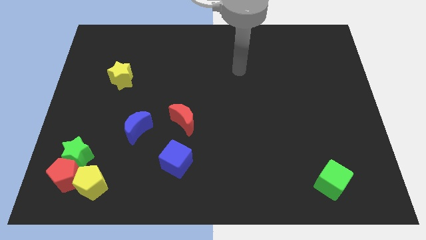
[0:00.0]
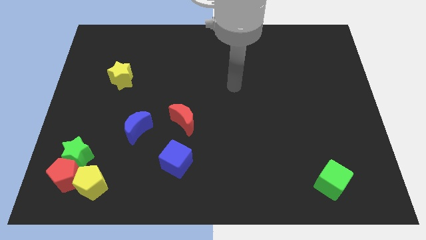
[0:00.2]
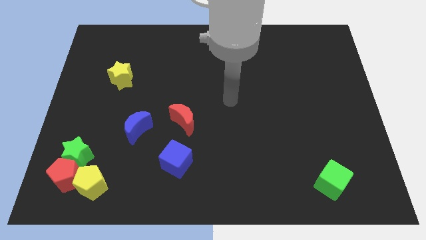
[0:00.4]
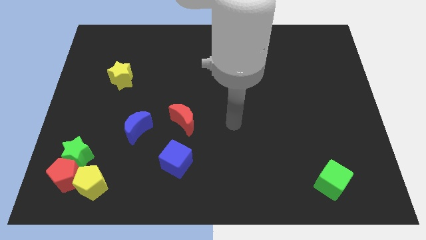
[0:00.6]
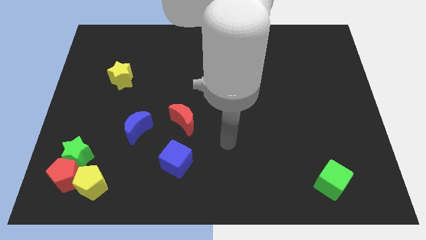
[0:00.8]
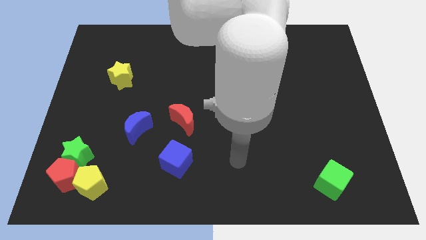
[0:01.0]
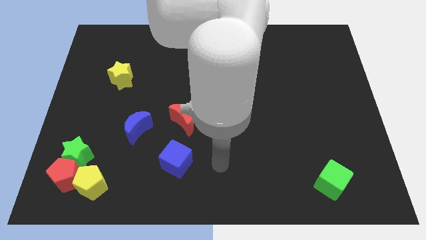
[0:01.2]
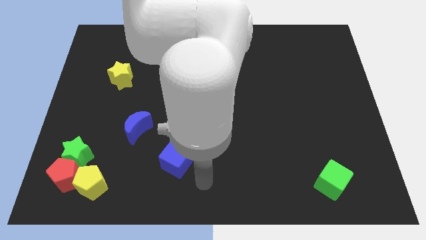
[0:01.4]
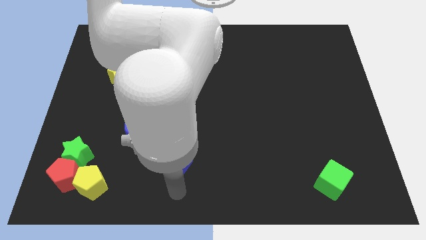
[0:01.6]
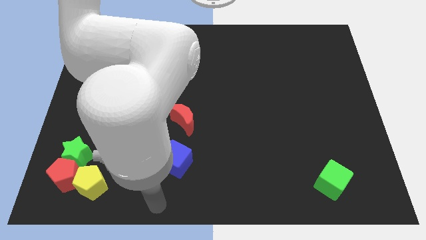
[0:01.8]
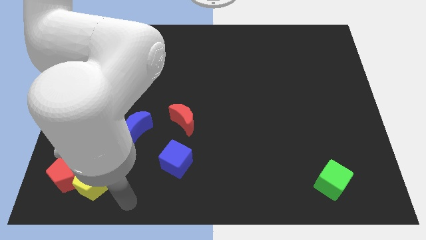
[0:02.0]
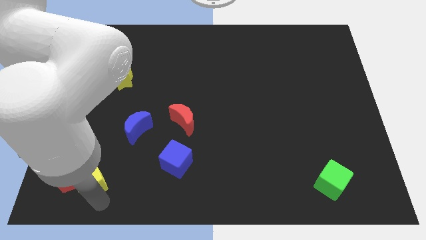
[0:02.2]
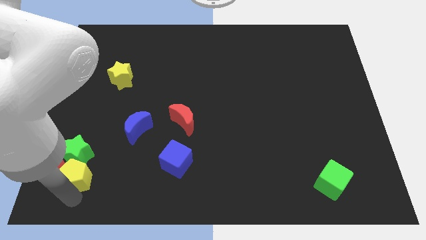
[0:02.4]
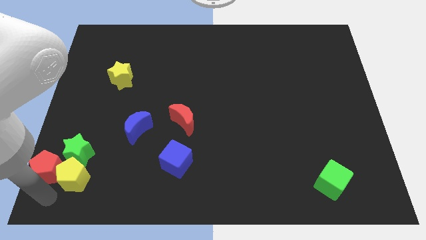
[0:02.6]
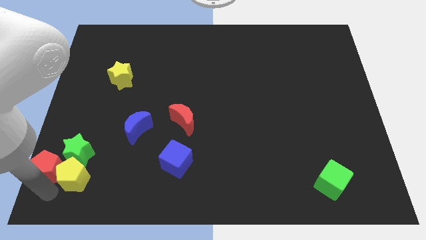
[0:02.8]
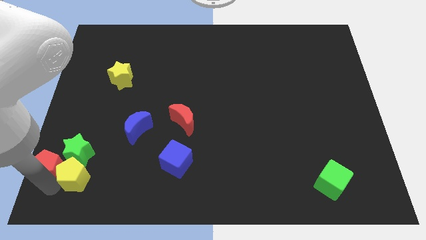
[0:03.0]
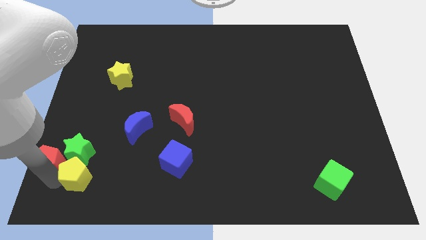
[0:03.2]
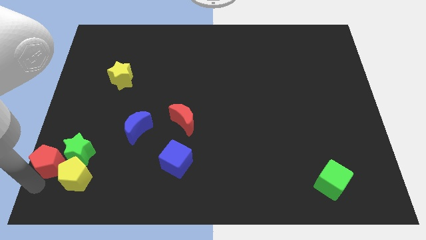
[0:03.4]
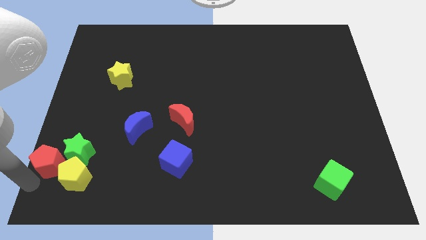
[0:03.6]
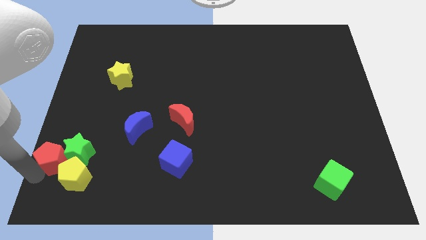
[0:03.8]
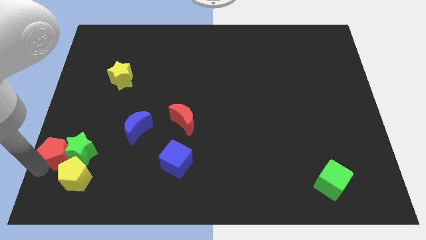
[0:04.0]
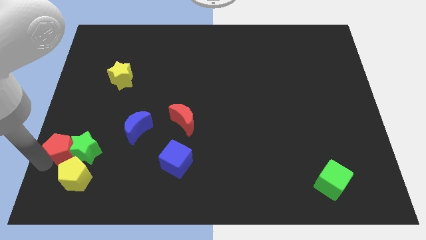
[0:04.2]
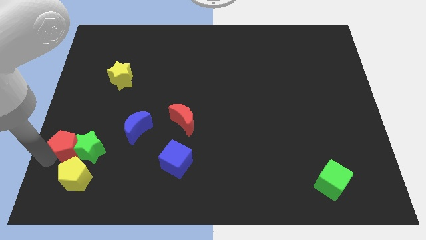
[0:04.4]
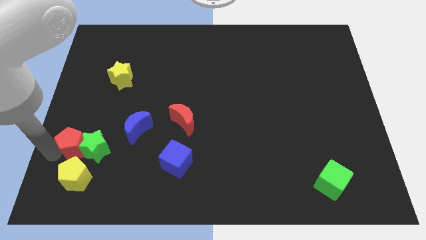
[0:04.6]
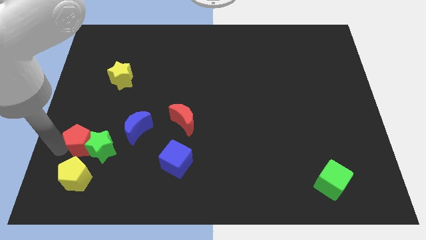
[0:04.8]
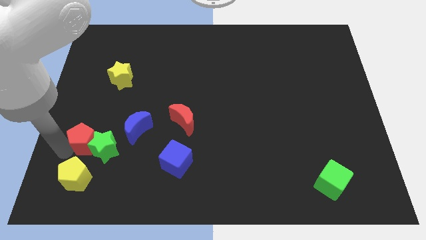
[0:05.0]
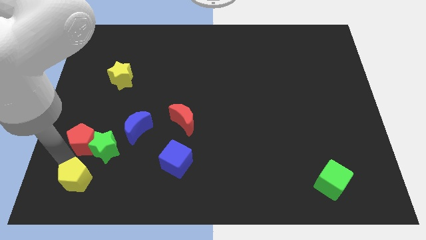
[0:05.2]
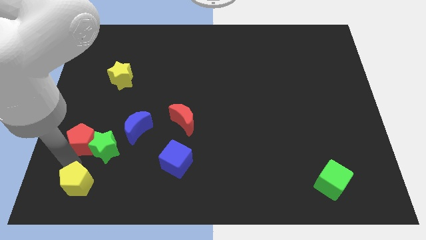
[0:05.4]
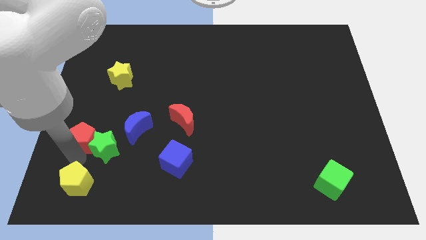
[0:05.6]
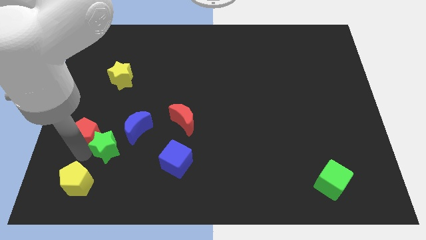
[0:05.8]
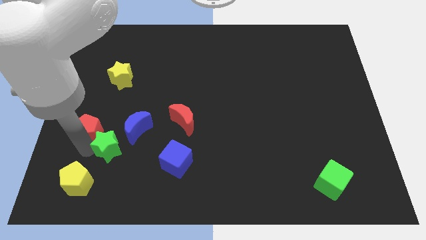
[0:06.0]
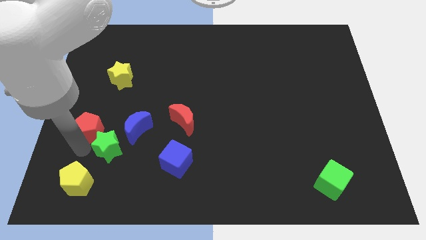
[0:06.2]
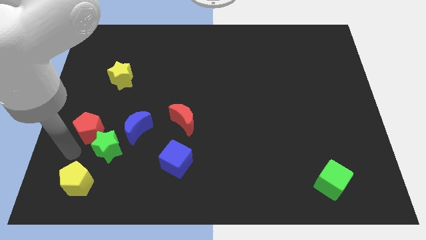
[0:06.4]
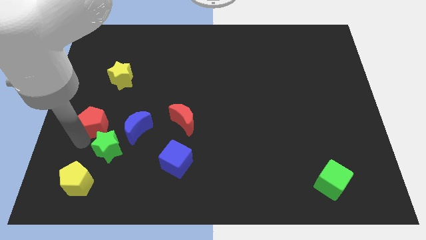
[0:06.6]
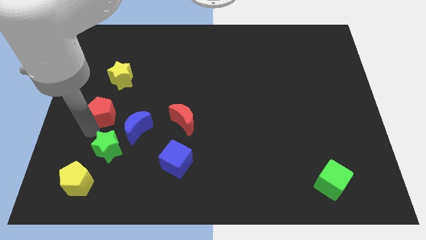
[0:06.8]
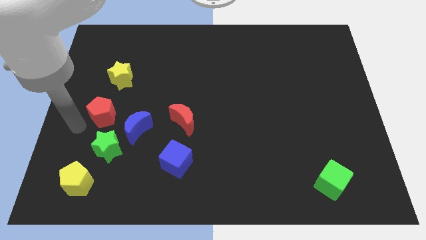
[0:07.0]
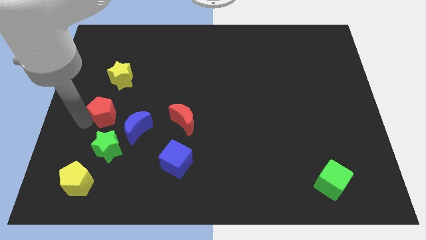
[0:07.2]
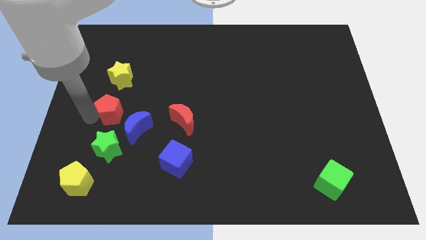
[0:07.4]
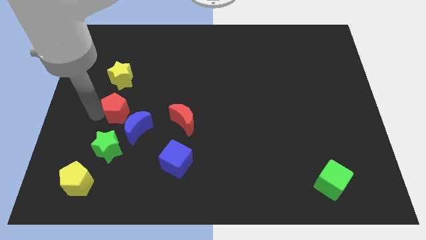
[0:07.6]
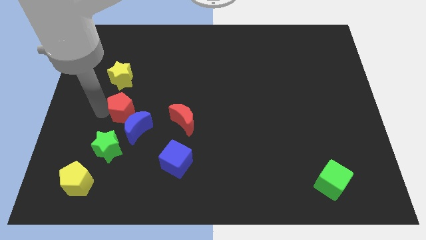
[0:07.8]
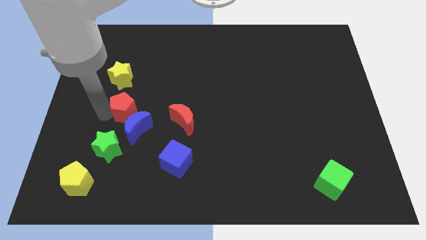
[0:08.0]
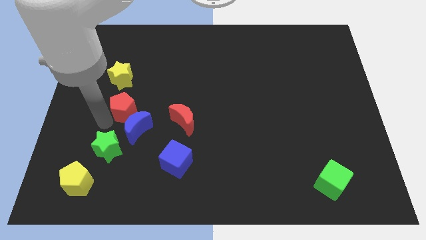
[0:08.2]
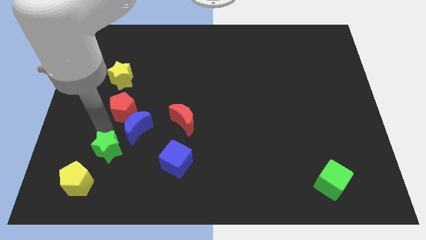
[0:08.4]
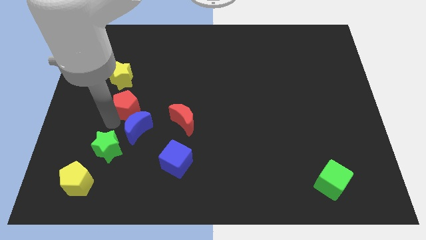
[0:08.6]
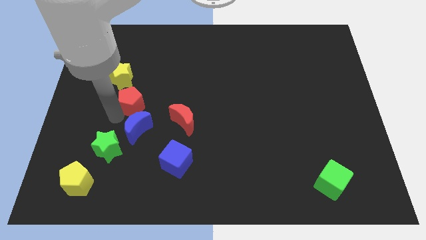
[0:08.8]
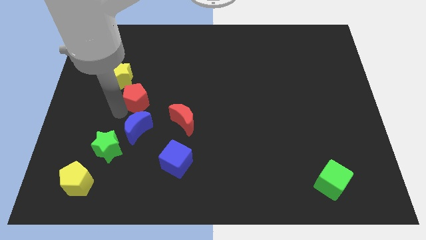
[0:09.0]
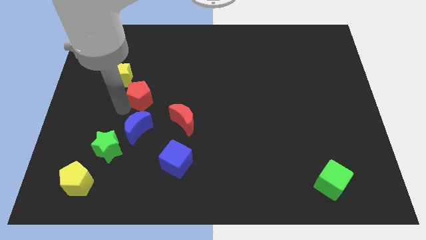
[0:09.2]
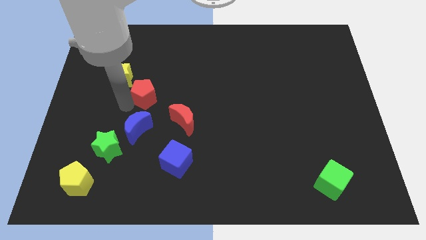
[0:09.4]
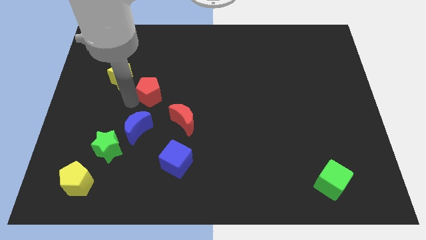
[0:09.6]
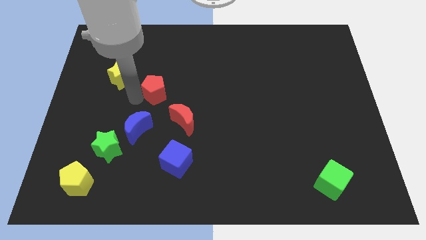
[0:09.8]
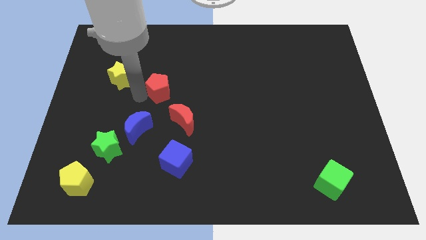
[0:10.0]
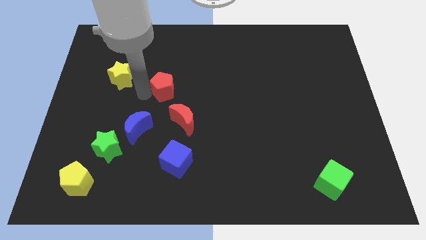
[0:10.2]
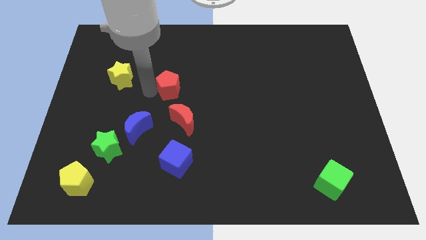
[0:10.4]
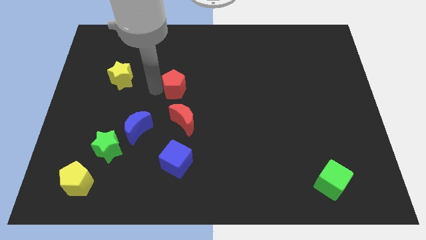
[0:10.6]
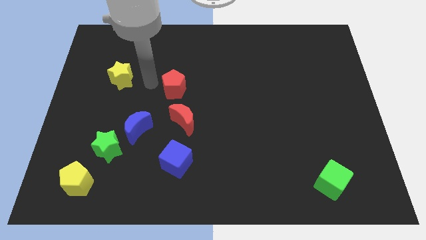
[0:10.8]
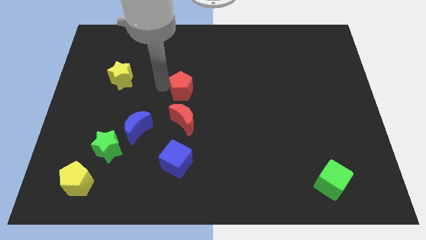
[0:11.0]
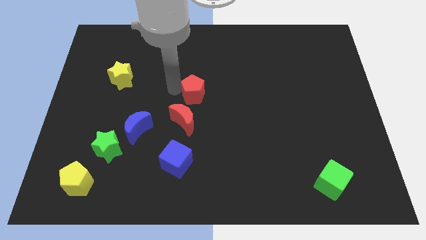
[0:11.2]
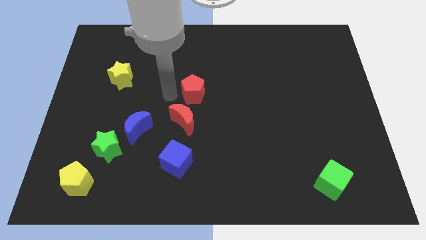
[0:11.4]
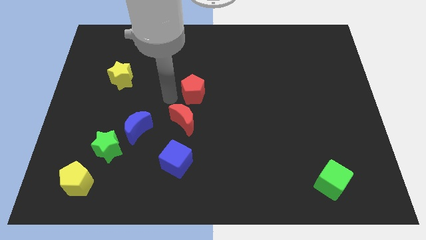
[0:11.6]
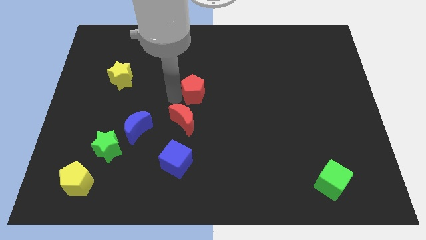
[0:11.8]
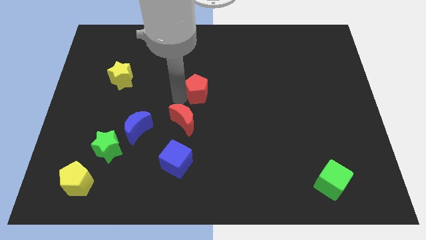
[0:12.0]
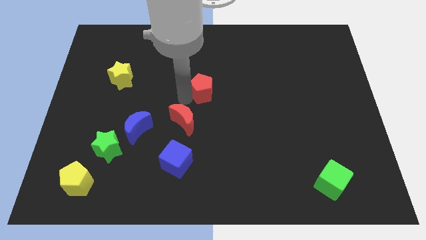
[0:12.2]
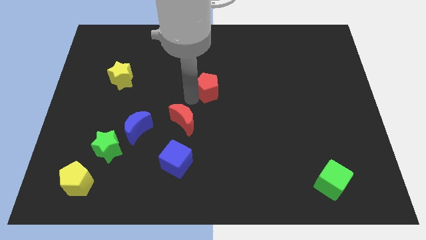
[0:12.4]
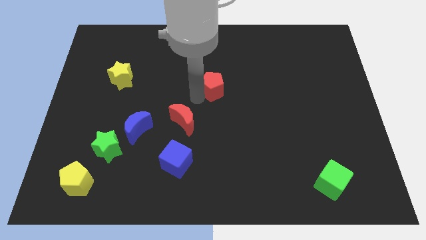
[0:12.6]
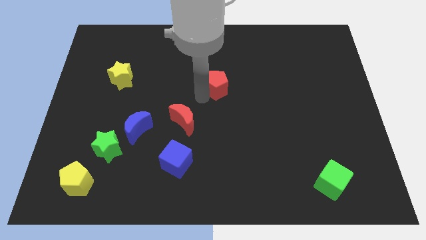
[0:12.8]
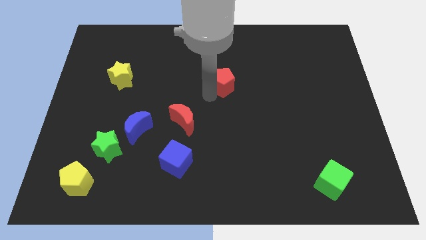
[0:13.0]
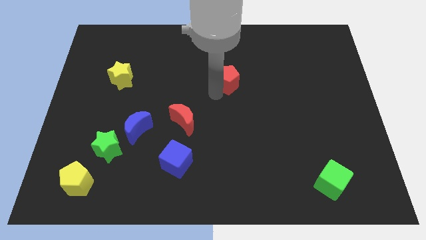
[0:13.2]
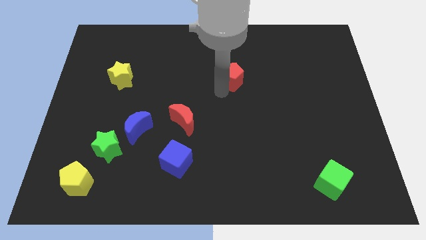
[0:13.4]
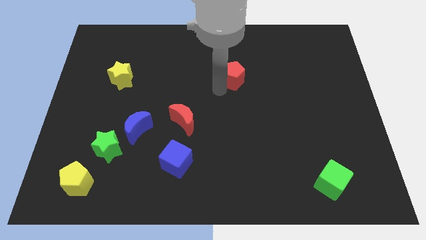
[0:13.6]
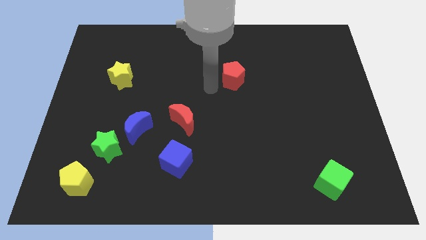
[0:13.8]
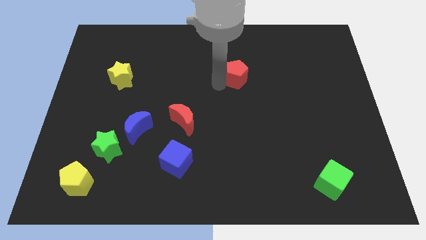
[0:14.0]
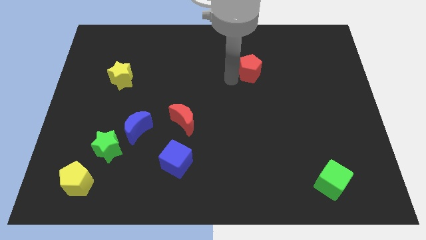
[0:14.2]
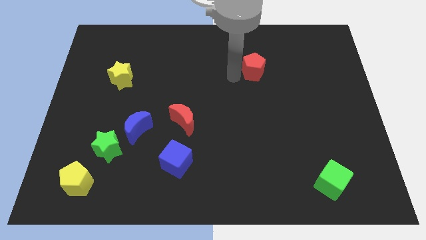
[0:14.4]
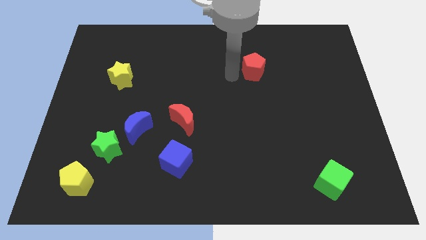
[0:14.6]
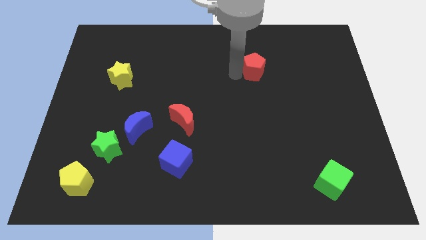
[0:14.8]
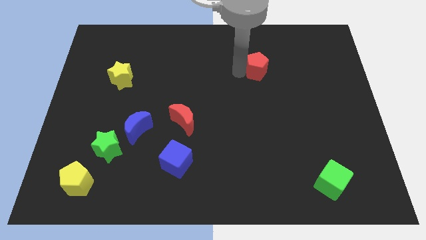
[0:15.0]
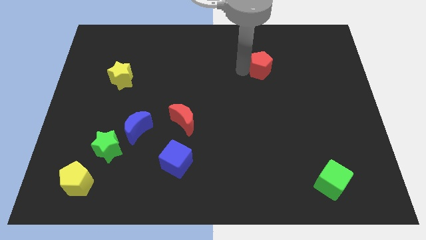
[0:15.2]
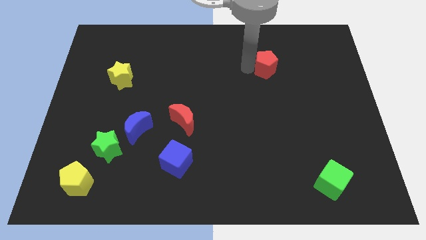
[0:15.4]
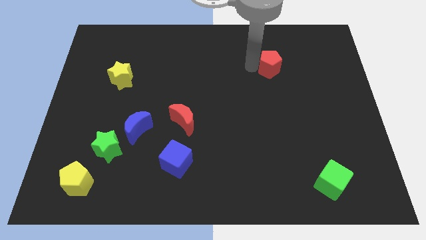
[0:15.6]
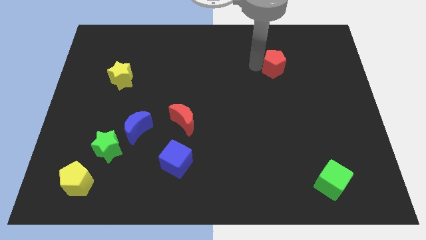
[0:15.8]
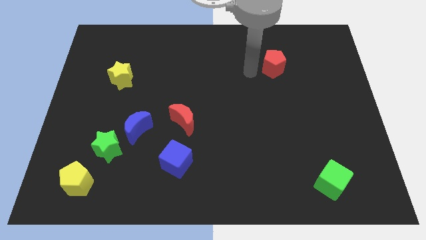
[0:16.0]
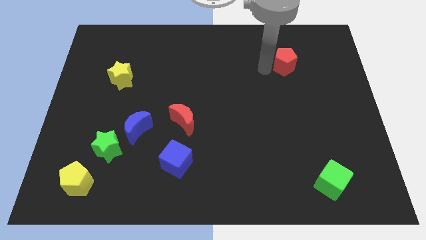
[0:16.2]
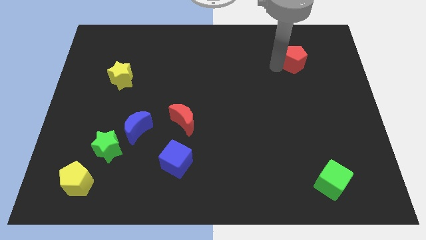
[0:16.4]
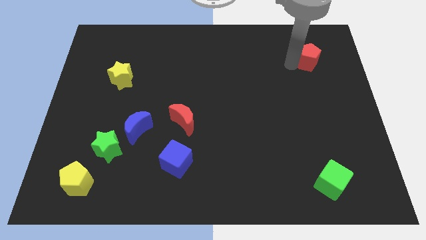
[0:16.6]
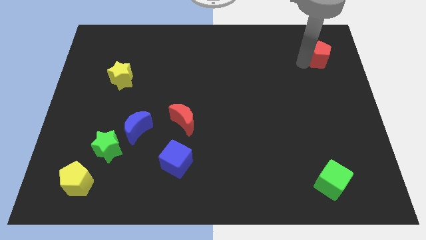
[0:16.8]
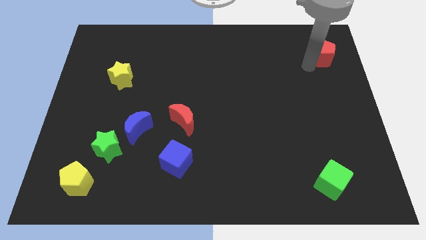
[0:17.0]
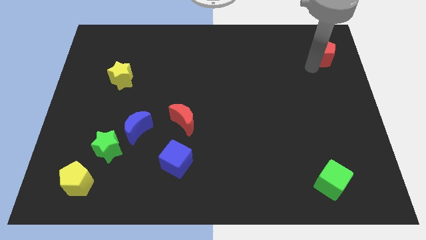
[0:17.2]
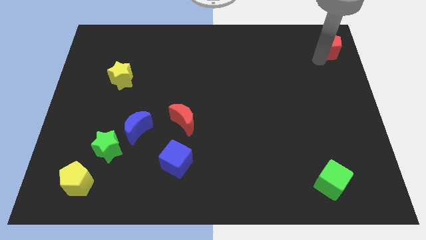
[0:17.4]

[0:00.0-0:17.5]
slide the red pentagon to the top right corner
